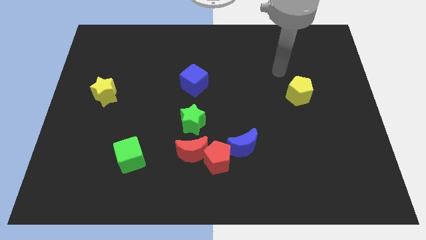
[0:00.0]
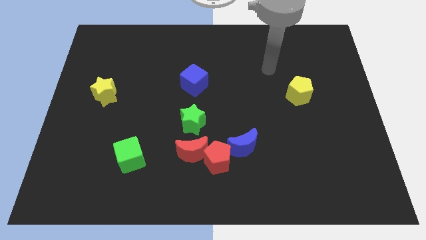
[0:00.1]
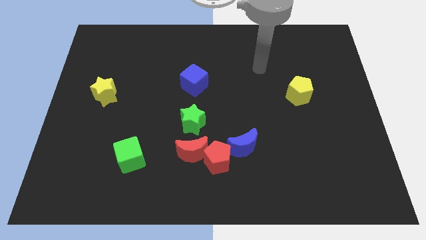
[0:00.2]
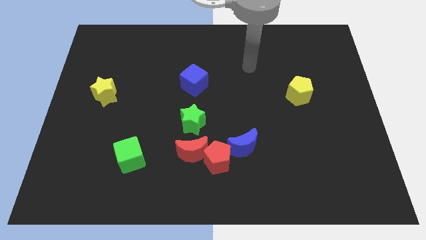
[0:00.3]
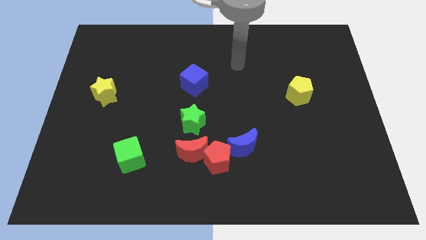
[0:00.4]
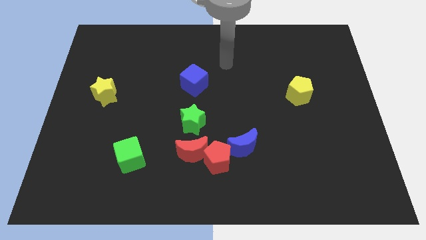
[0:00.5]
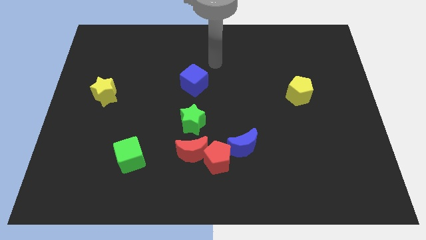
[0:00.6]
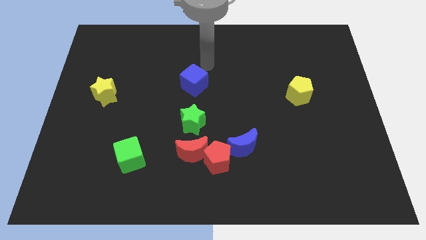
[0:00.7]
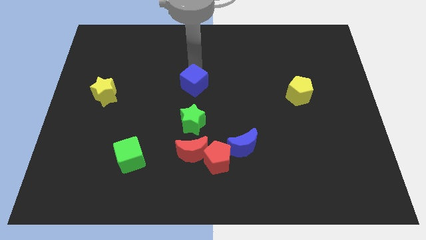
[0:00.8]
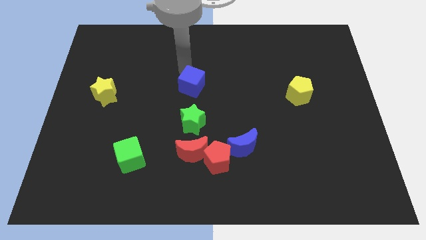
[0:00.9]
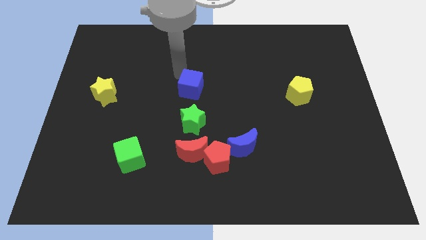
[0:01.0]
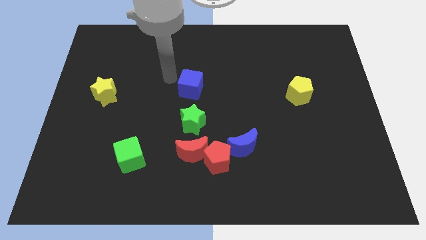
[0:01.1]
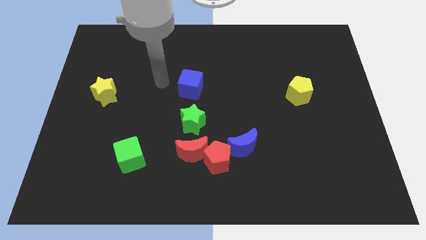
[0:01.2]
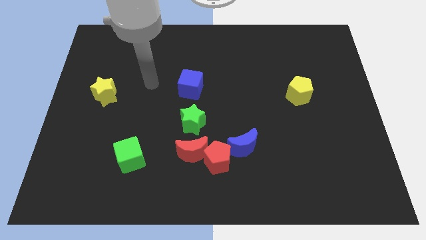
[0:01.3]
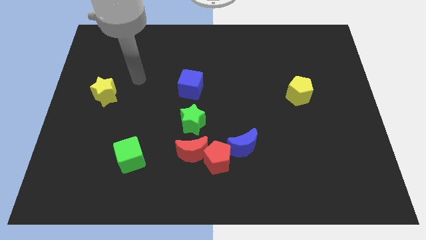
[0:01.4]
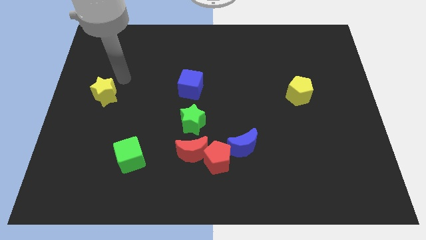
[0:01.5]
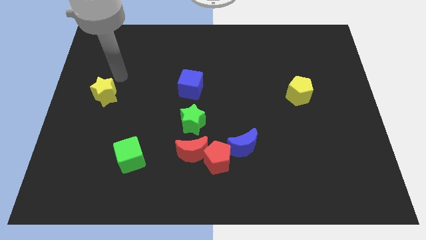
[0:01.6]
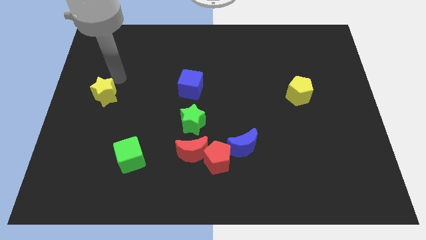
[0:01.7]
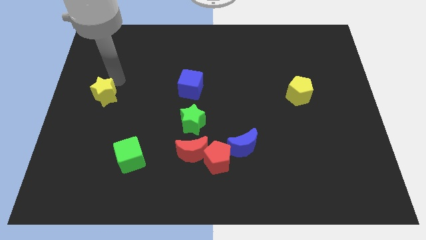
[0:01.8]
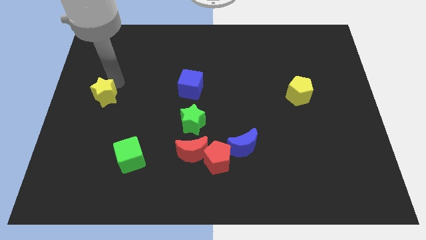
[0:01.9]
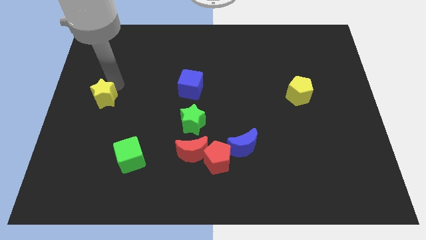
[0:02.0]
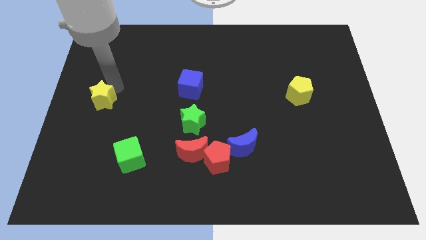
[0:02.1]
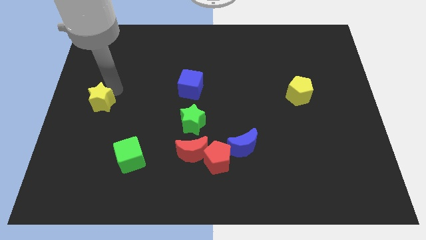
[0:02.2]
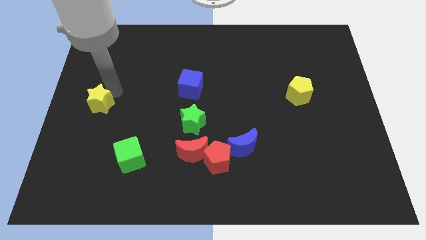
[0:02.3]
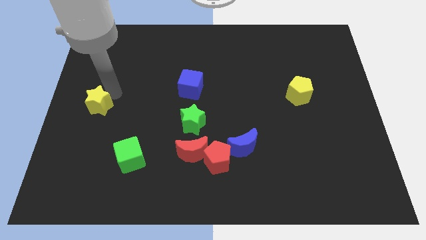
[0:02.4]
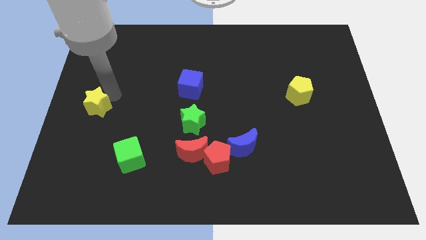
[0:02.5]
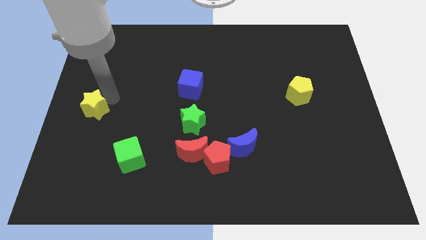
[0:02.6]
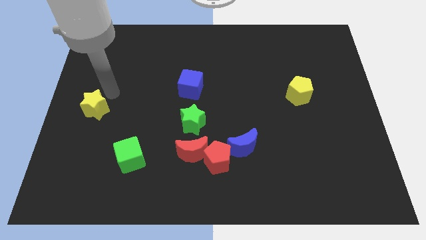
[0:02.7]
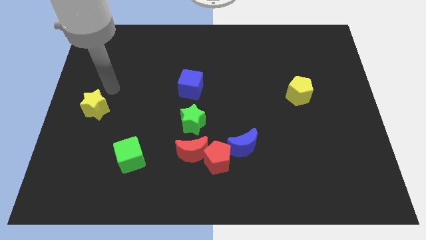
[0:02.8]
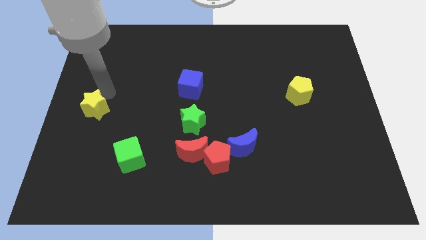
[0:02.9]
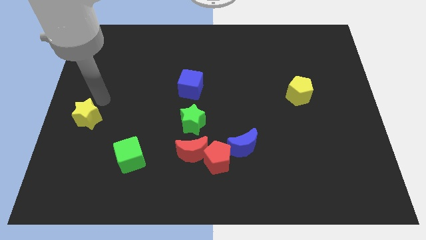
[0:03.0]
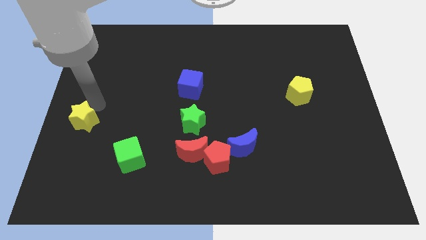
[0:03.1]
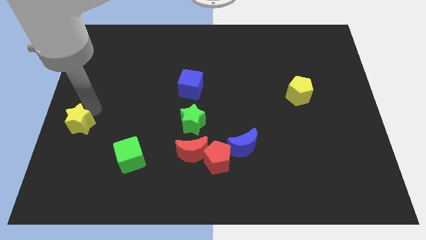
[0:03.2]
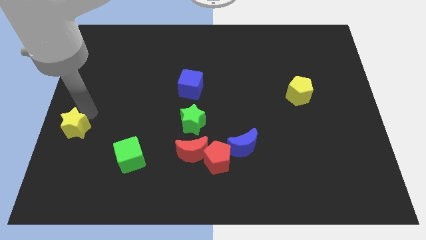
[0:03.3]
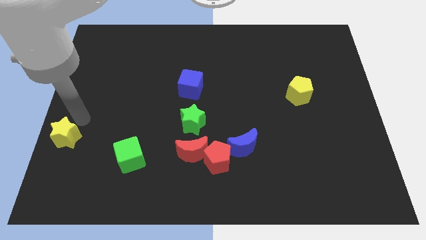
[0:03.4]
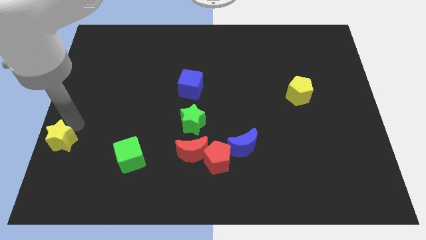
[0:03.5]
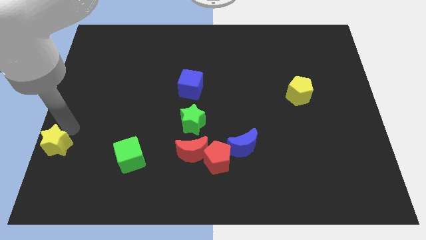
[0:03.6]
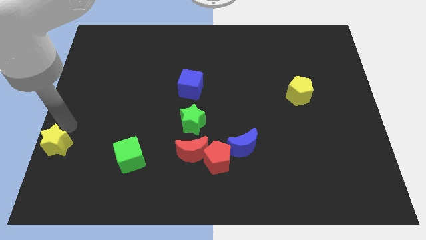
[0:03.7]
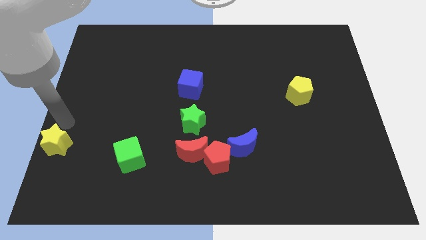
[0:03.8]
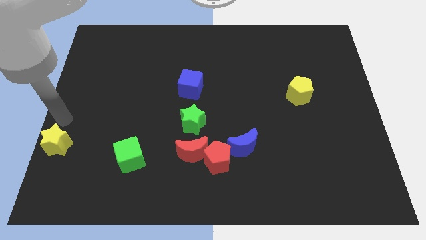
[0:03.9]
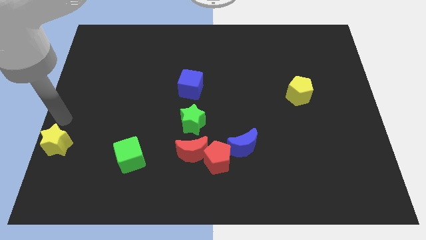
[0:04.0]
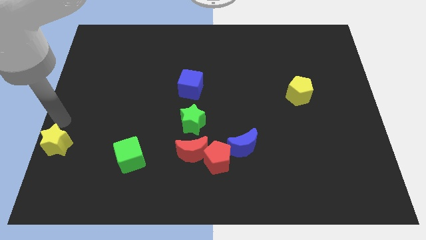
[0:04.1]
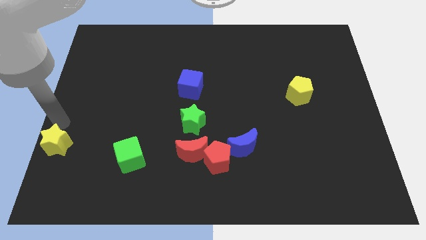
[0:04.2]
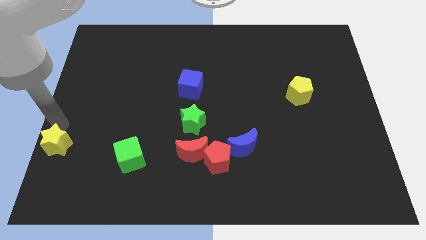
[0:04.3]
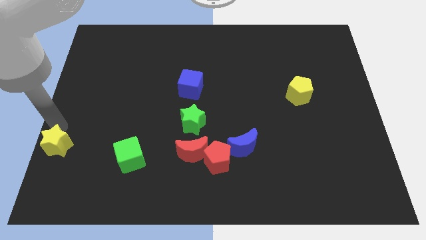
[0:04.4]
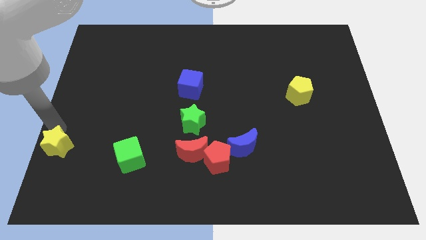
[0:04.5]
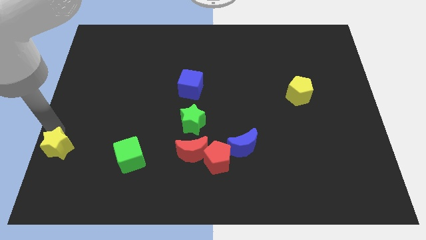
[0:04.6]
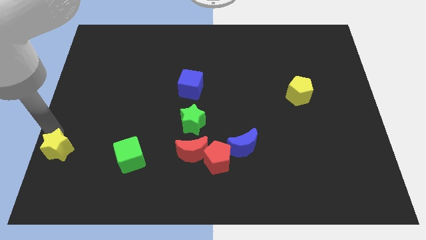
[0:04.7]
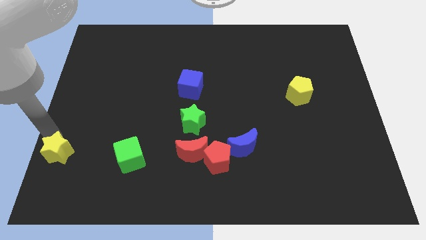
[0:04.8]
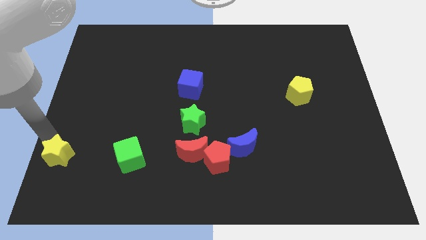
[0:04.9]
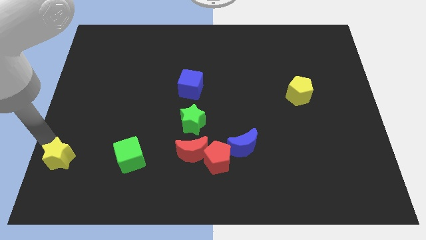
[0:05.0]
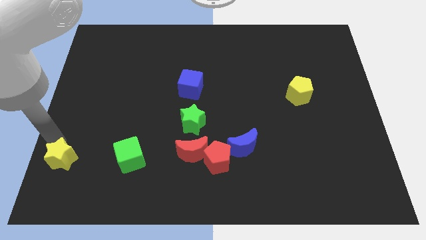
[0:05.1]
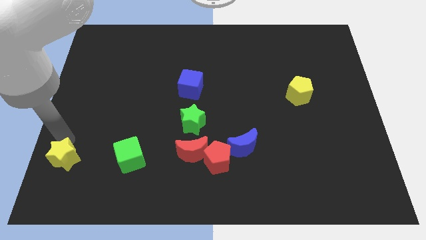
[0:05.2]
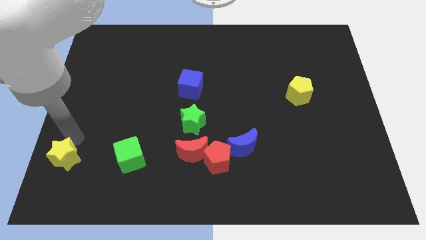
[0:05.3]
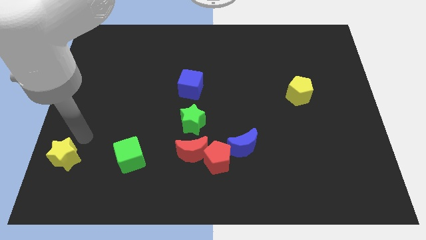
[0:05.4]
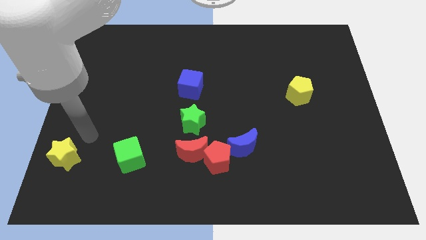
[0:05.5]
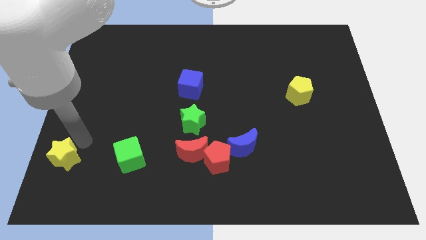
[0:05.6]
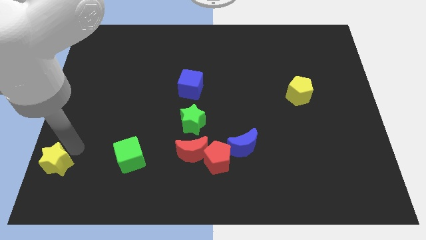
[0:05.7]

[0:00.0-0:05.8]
move the yellow star to the bottom left corner

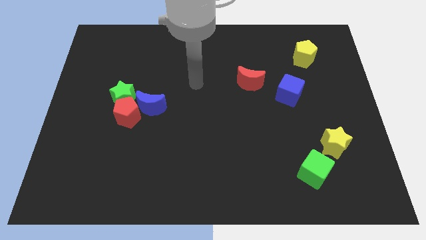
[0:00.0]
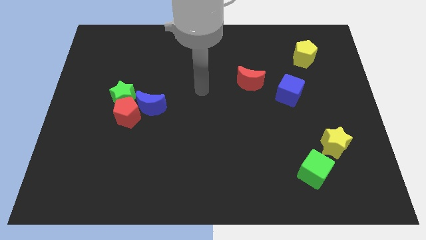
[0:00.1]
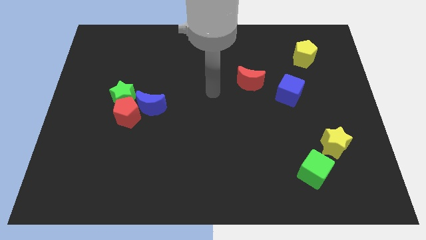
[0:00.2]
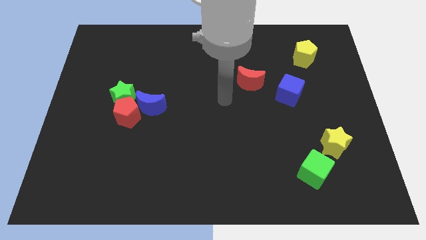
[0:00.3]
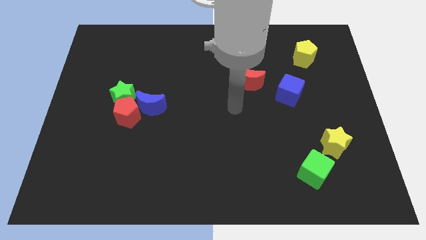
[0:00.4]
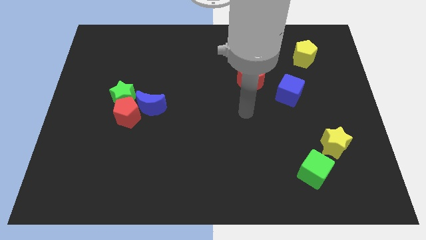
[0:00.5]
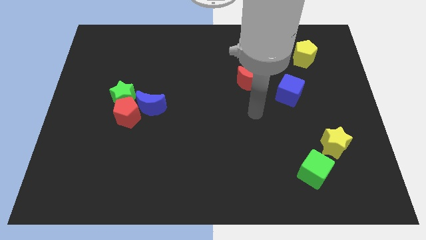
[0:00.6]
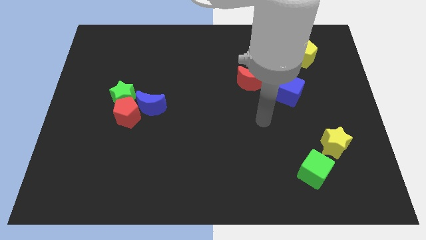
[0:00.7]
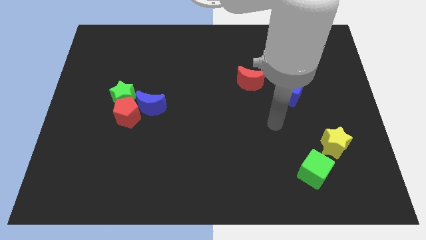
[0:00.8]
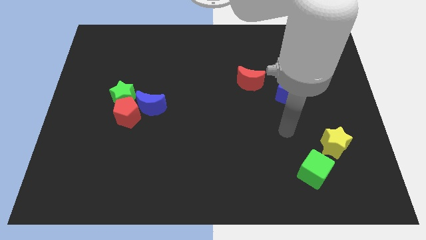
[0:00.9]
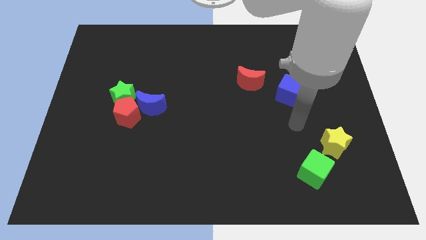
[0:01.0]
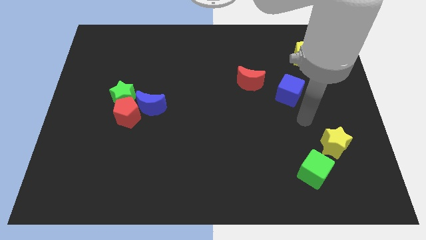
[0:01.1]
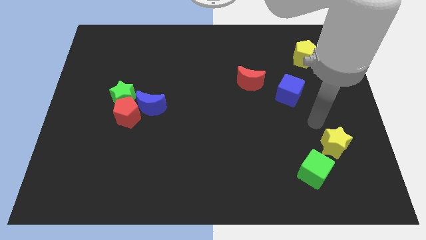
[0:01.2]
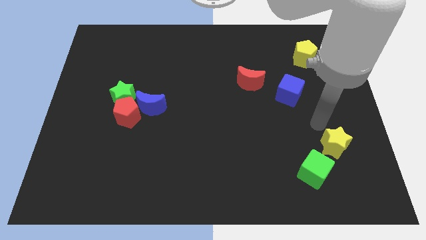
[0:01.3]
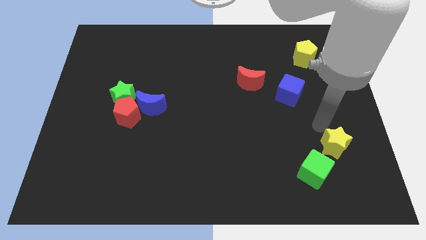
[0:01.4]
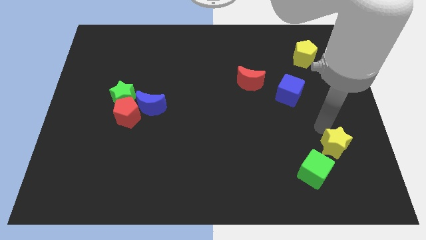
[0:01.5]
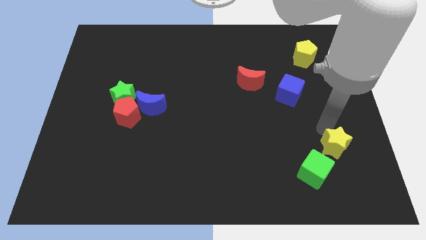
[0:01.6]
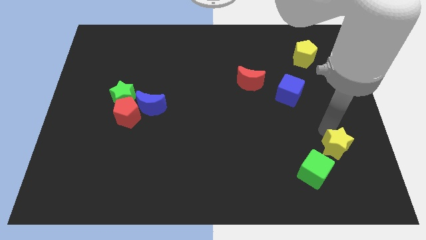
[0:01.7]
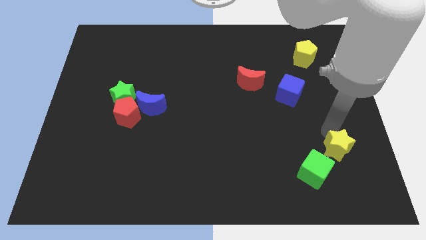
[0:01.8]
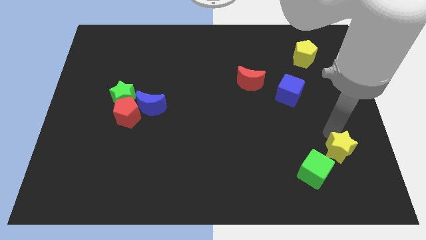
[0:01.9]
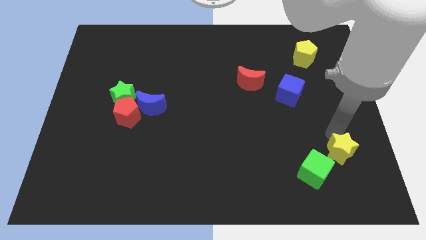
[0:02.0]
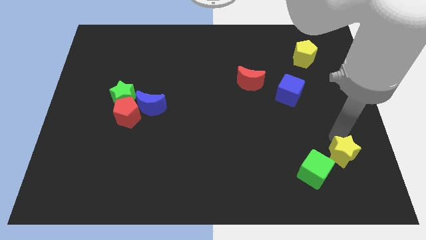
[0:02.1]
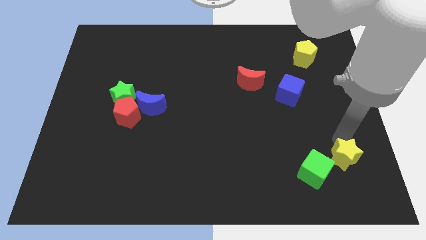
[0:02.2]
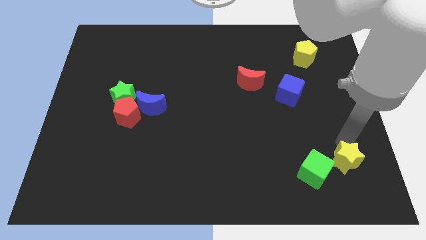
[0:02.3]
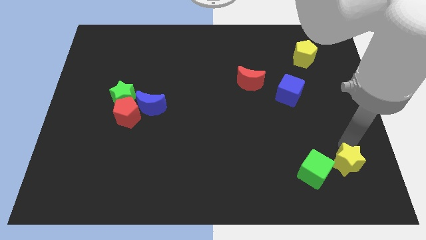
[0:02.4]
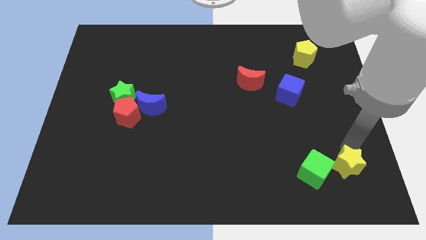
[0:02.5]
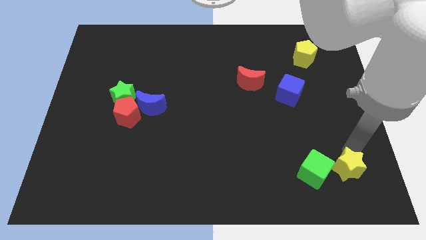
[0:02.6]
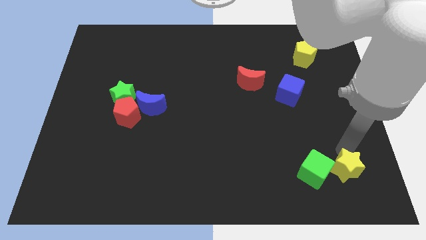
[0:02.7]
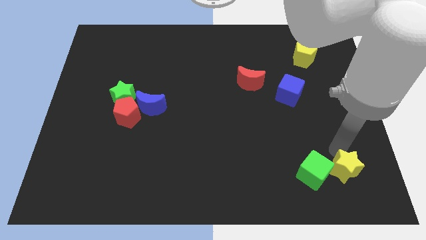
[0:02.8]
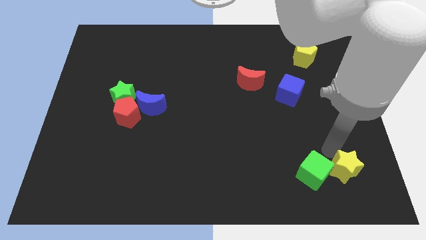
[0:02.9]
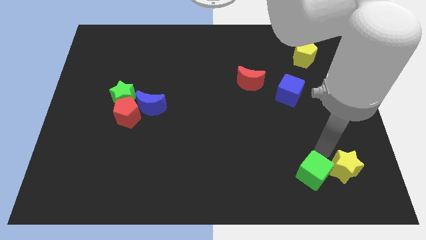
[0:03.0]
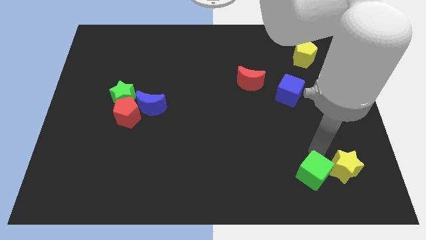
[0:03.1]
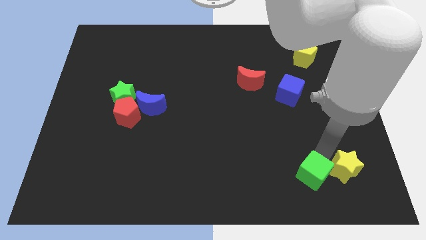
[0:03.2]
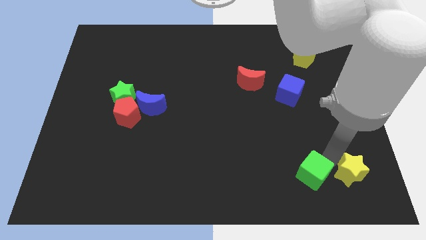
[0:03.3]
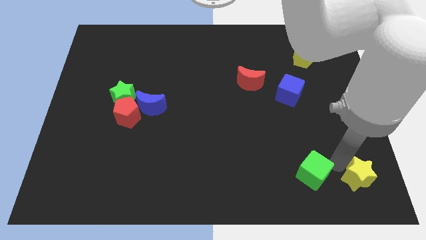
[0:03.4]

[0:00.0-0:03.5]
push the yellow star to the bottom right
